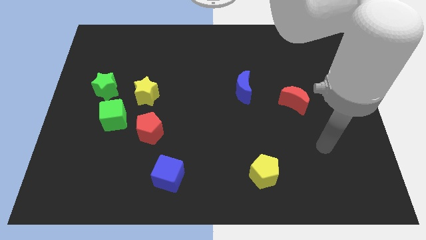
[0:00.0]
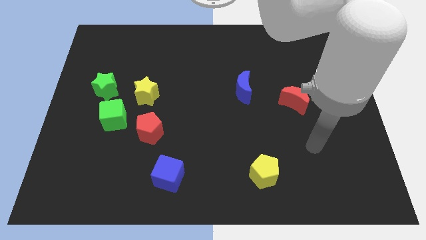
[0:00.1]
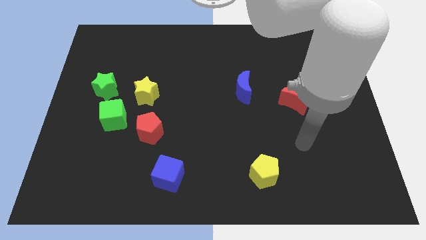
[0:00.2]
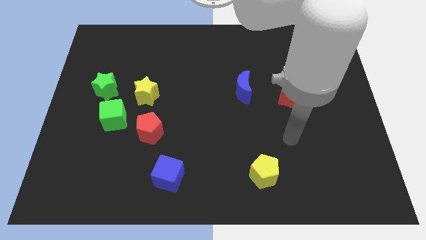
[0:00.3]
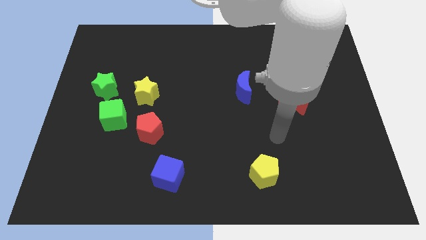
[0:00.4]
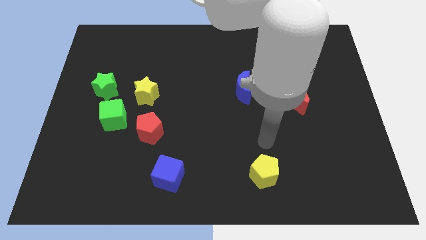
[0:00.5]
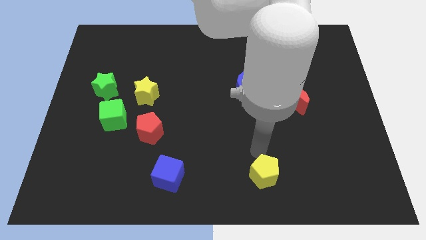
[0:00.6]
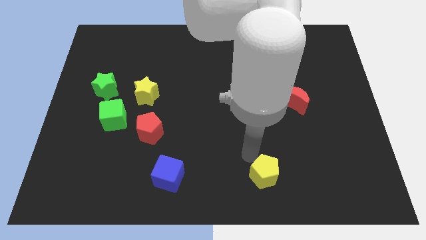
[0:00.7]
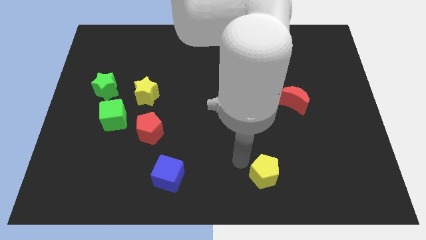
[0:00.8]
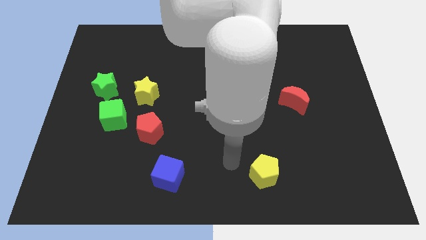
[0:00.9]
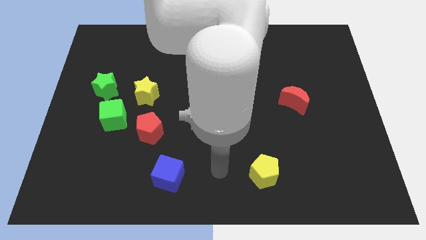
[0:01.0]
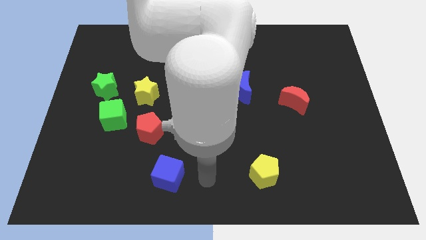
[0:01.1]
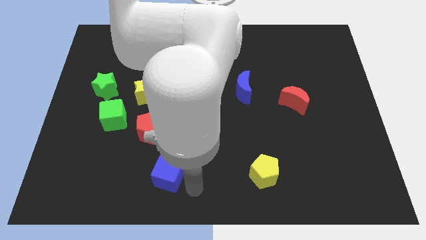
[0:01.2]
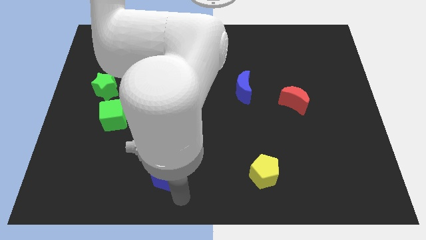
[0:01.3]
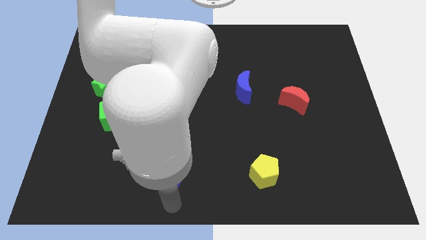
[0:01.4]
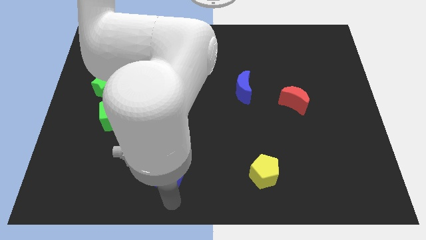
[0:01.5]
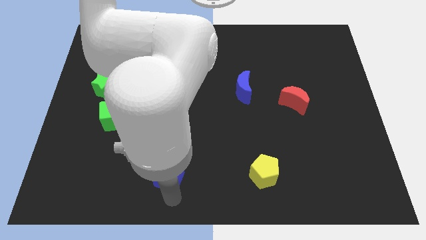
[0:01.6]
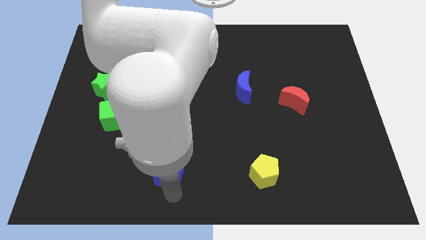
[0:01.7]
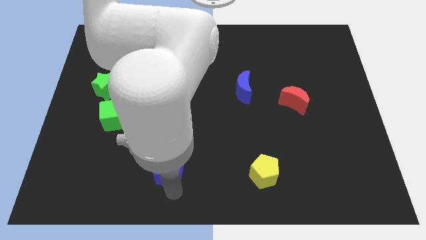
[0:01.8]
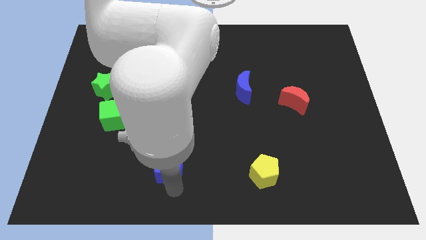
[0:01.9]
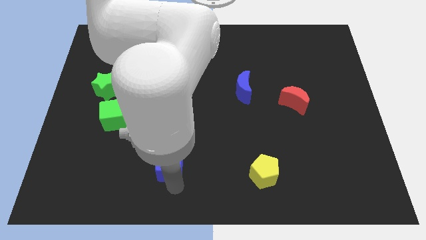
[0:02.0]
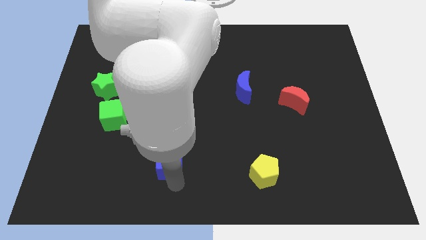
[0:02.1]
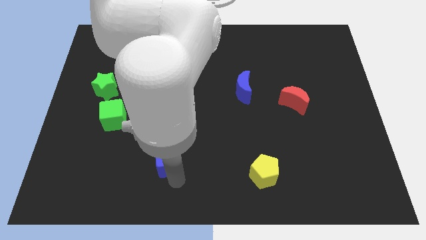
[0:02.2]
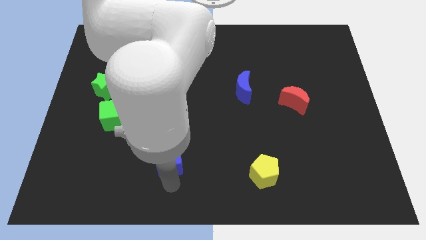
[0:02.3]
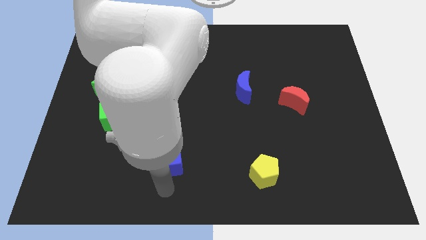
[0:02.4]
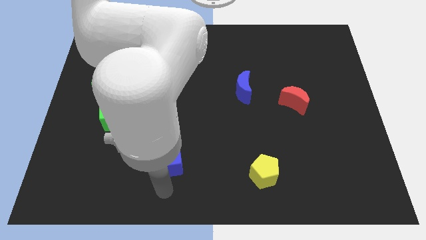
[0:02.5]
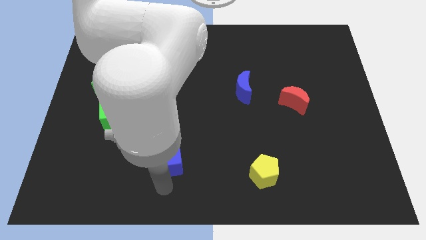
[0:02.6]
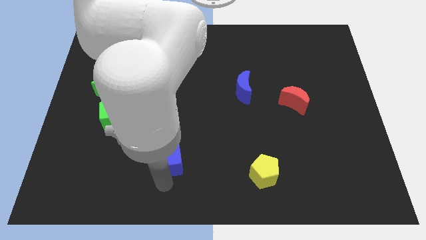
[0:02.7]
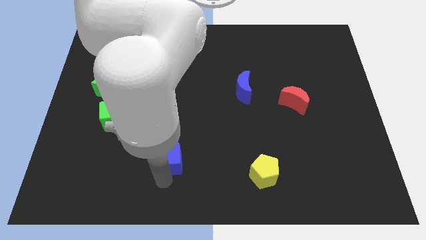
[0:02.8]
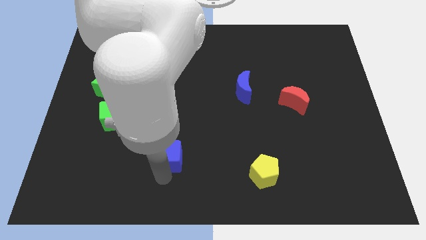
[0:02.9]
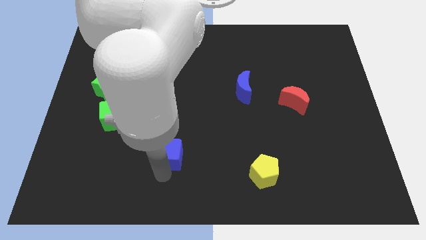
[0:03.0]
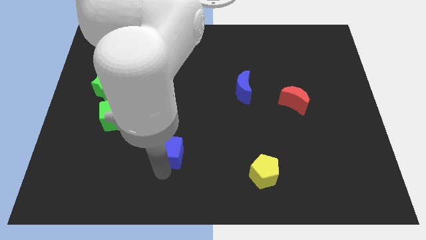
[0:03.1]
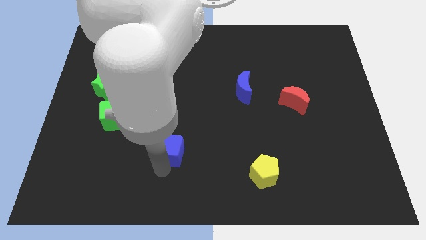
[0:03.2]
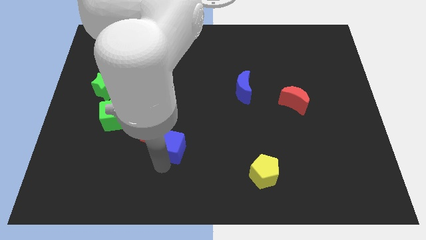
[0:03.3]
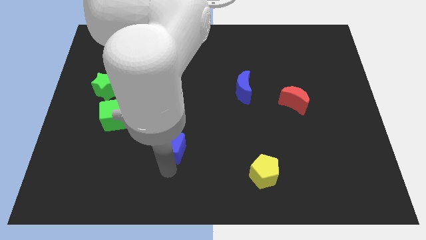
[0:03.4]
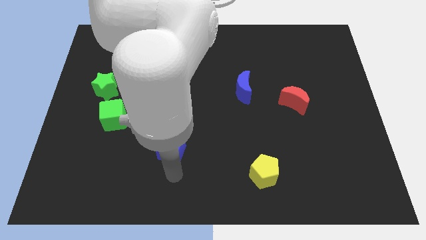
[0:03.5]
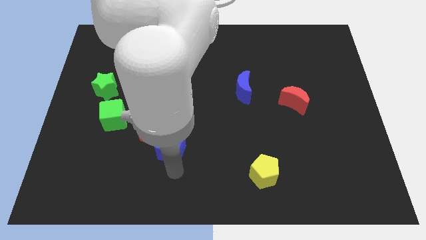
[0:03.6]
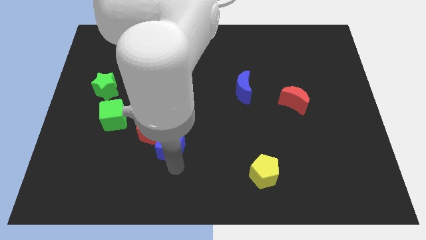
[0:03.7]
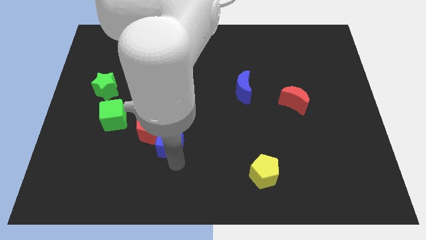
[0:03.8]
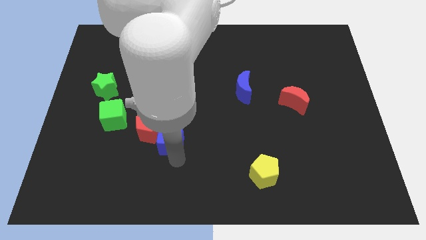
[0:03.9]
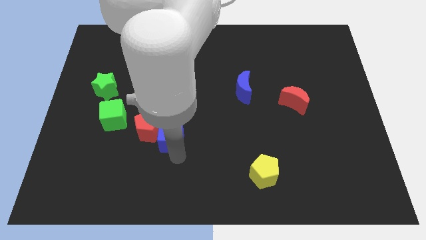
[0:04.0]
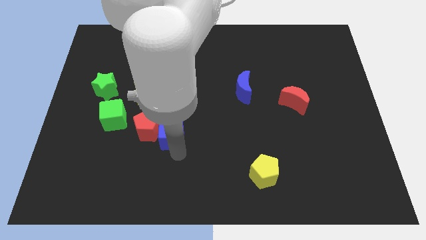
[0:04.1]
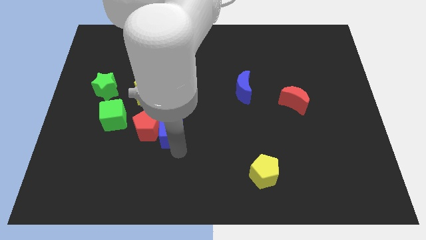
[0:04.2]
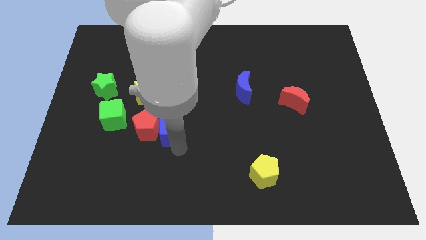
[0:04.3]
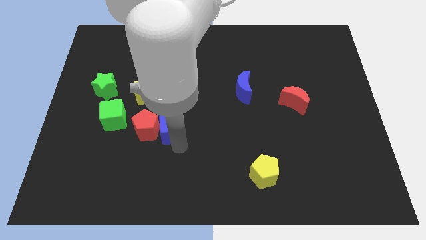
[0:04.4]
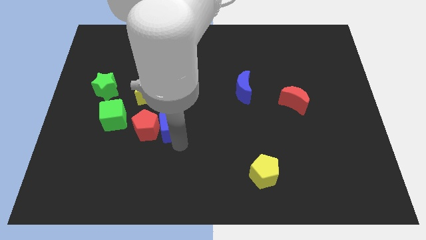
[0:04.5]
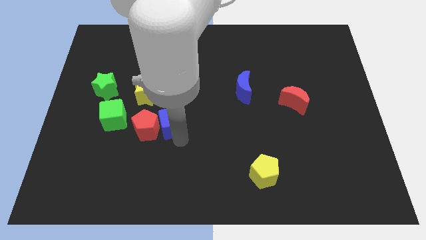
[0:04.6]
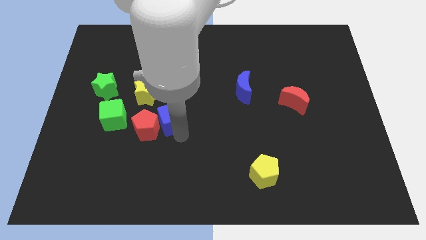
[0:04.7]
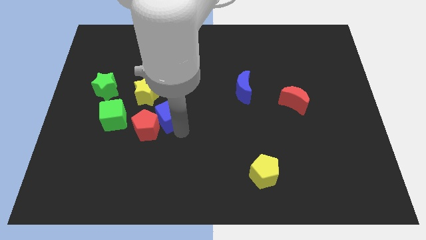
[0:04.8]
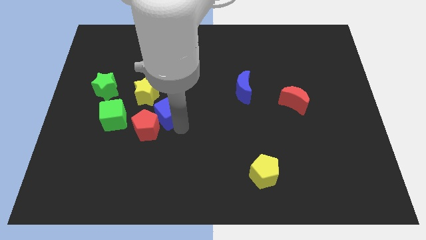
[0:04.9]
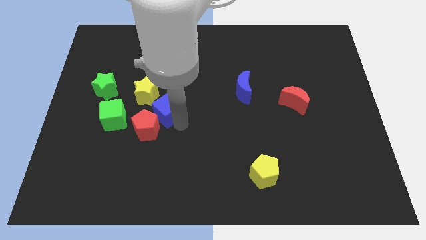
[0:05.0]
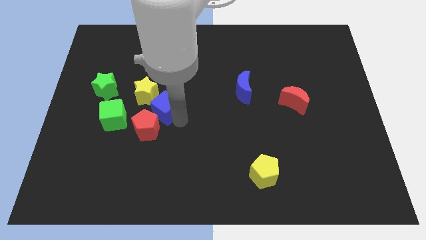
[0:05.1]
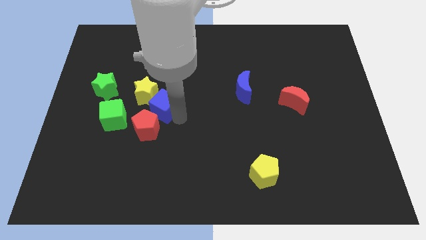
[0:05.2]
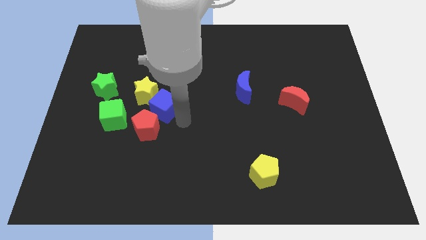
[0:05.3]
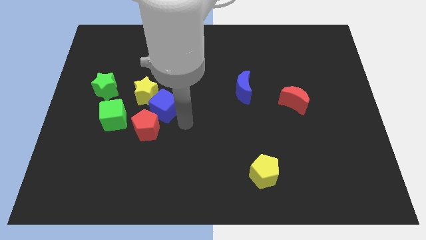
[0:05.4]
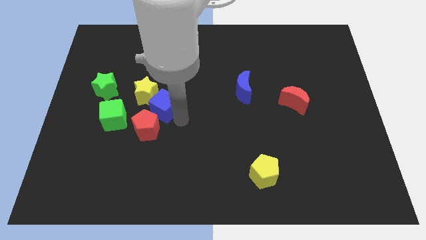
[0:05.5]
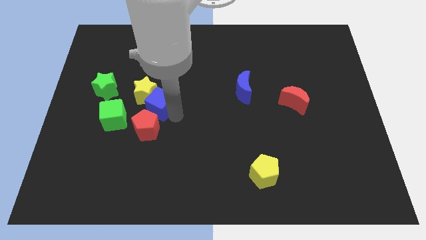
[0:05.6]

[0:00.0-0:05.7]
move the blue cube to the yellow star

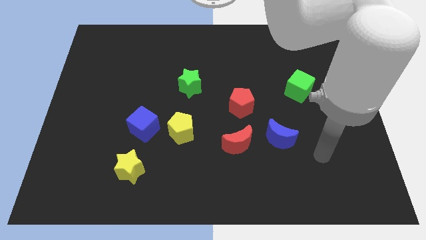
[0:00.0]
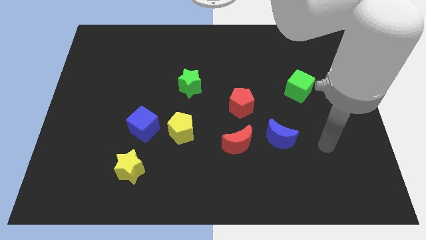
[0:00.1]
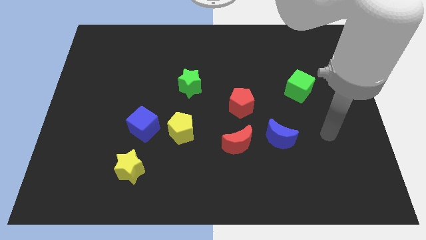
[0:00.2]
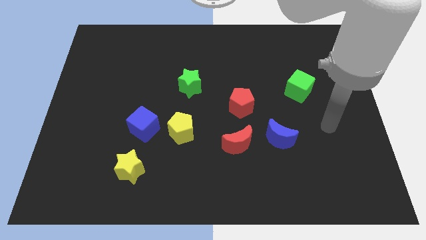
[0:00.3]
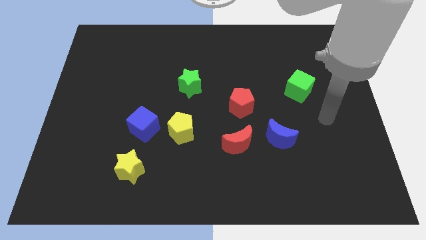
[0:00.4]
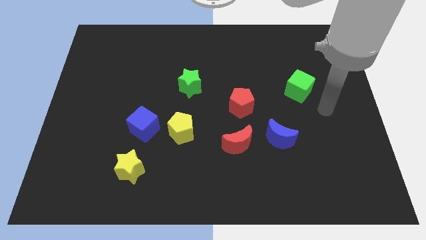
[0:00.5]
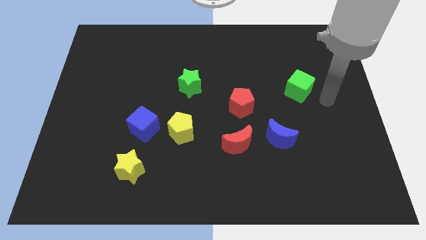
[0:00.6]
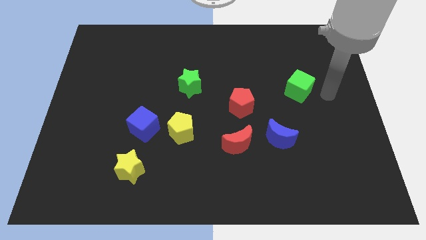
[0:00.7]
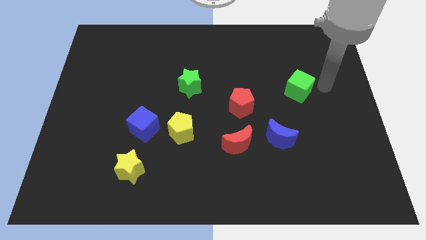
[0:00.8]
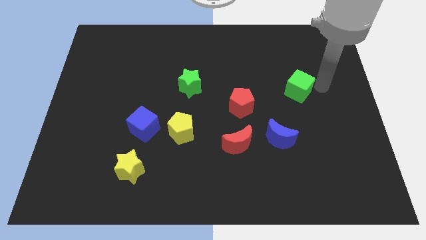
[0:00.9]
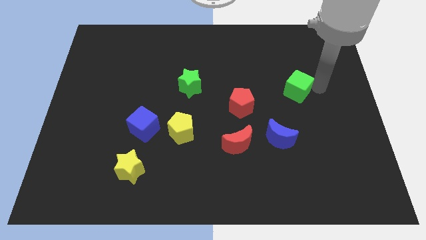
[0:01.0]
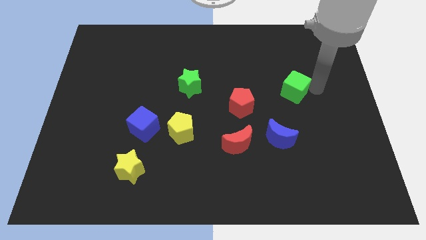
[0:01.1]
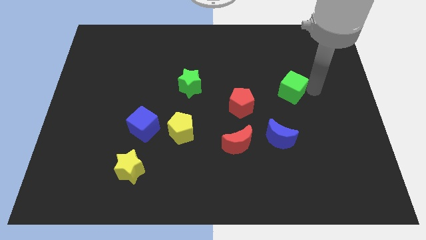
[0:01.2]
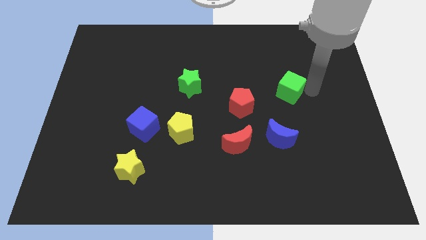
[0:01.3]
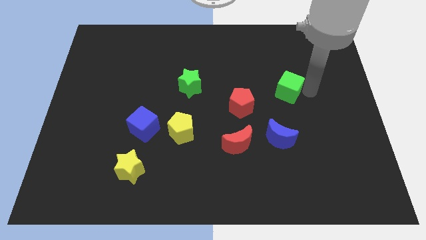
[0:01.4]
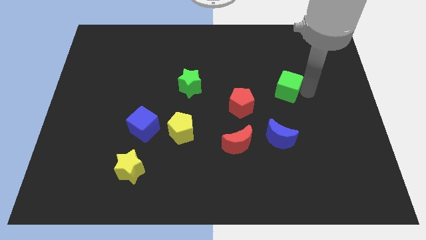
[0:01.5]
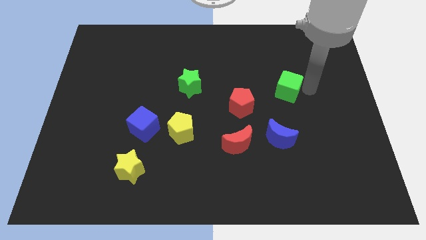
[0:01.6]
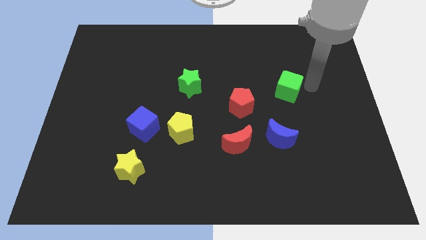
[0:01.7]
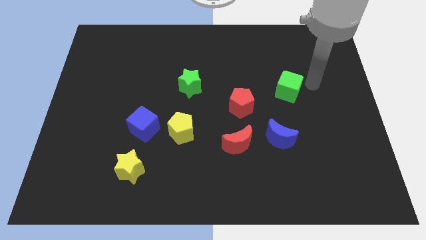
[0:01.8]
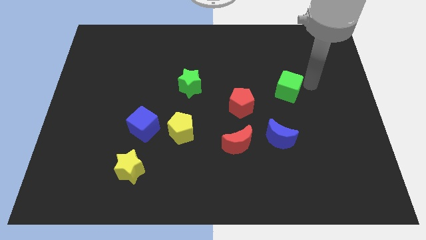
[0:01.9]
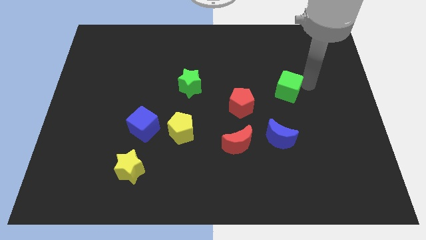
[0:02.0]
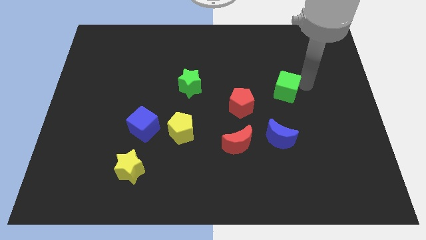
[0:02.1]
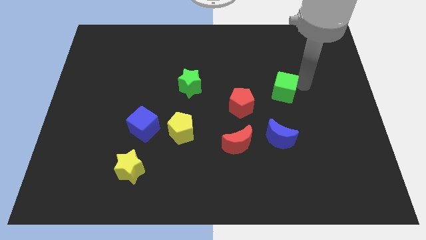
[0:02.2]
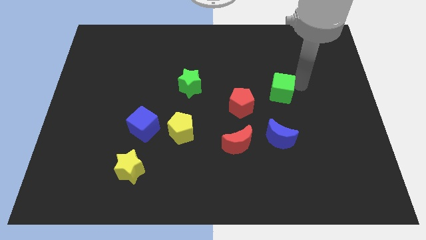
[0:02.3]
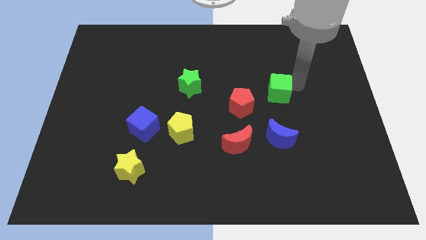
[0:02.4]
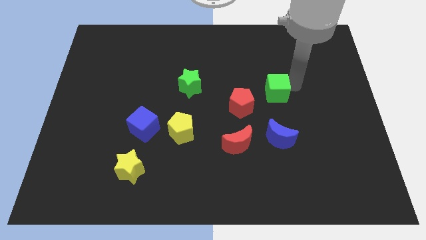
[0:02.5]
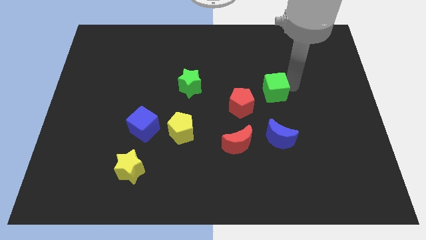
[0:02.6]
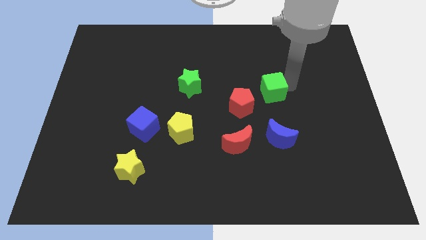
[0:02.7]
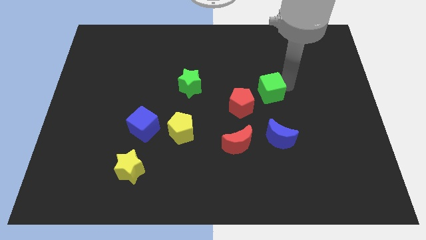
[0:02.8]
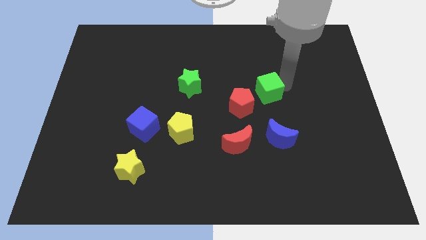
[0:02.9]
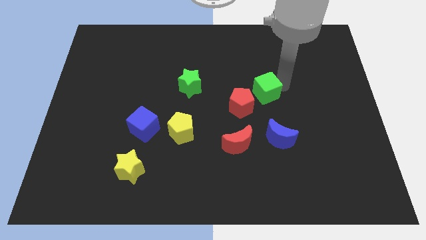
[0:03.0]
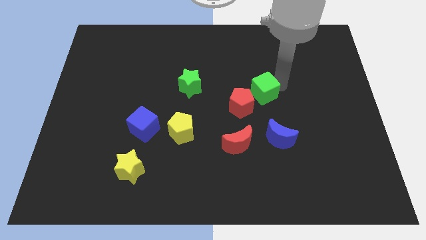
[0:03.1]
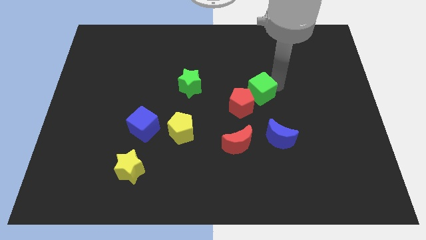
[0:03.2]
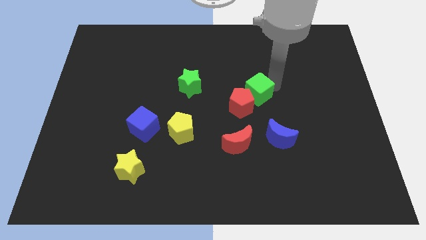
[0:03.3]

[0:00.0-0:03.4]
put the green cube to the red pentagon
